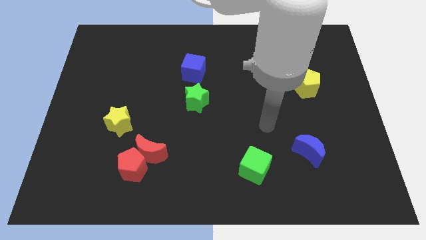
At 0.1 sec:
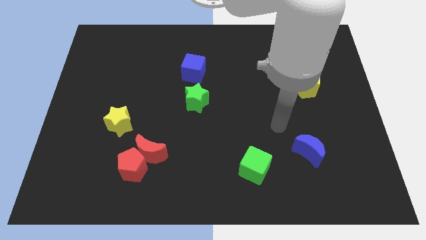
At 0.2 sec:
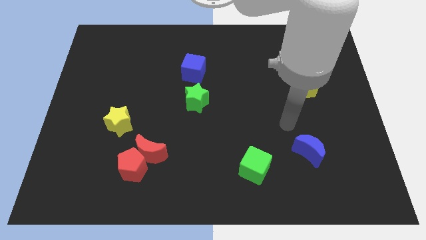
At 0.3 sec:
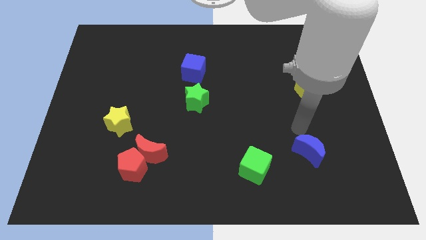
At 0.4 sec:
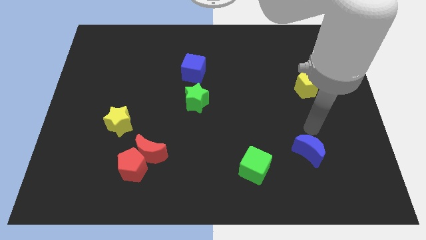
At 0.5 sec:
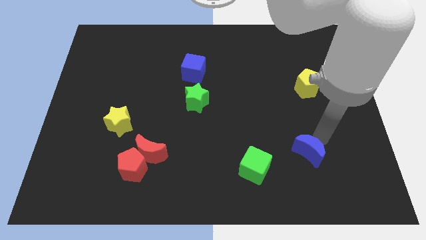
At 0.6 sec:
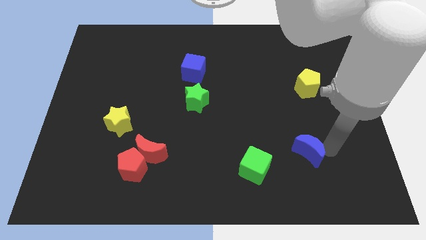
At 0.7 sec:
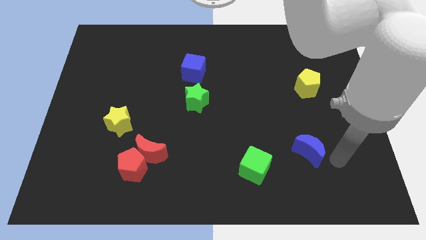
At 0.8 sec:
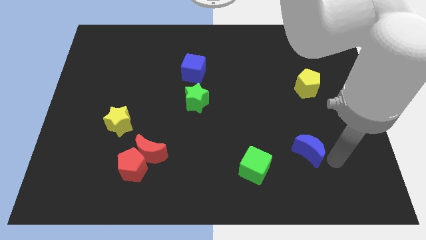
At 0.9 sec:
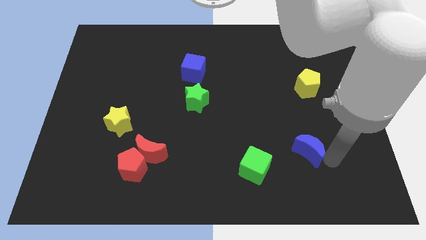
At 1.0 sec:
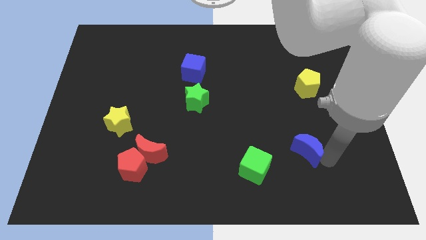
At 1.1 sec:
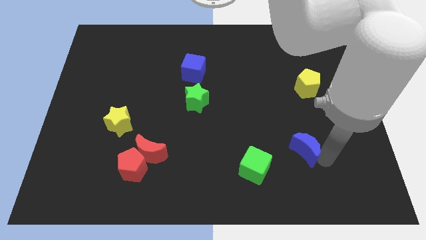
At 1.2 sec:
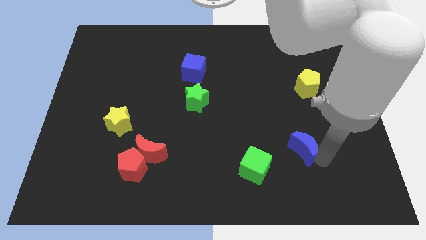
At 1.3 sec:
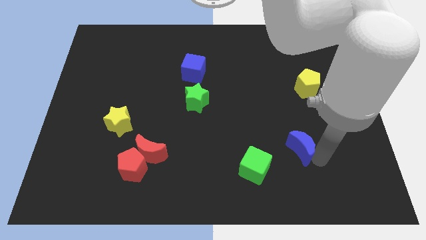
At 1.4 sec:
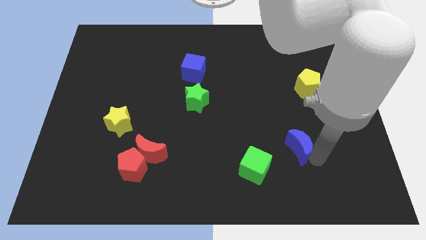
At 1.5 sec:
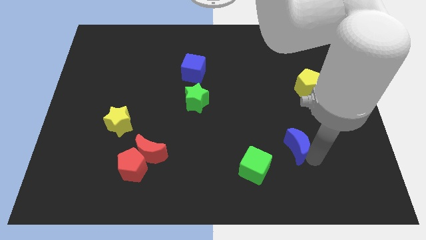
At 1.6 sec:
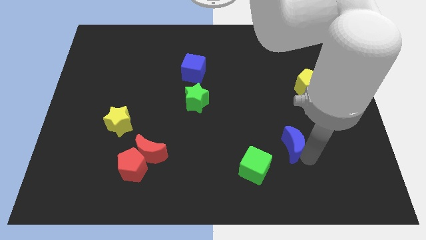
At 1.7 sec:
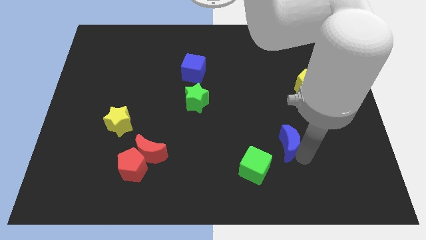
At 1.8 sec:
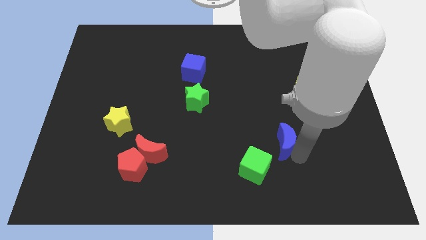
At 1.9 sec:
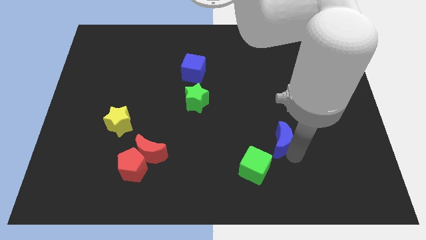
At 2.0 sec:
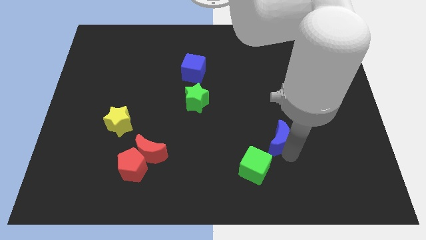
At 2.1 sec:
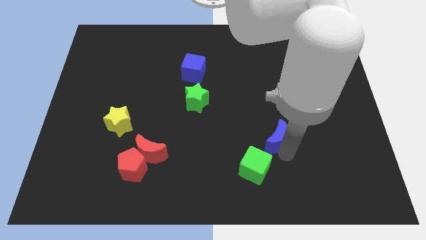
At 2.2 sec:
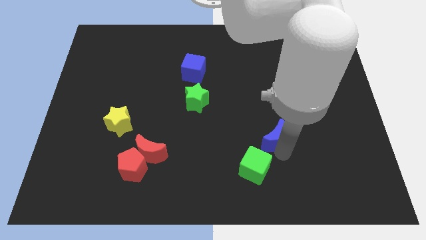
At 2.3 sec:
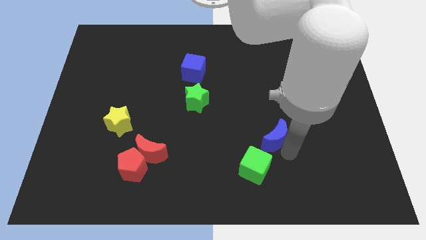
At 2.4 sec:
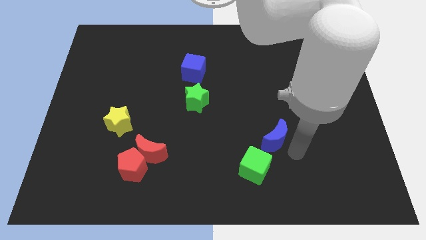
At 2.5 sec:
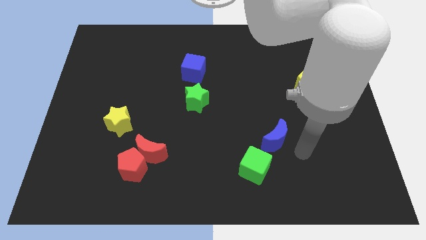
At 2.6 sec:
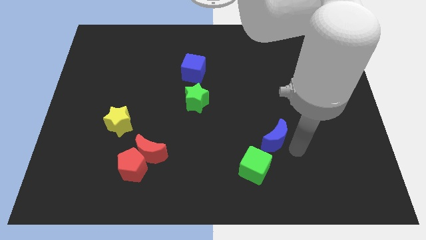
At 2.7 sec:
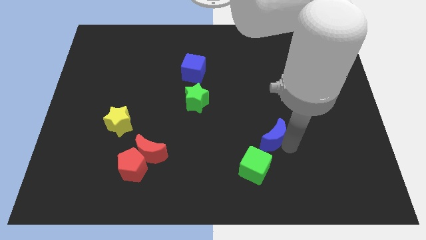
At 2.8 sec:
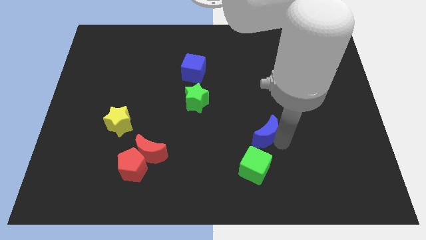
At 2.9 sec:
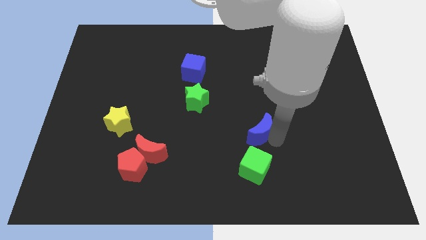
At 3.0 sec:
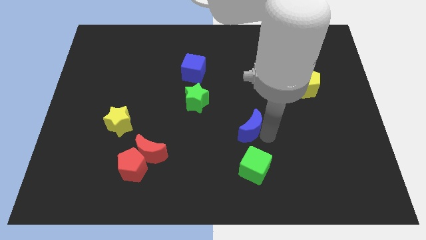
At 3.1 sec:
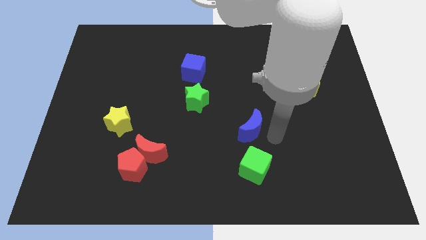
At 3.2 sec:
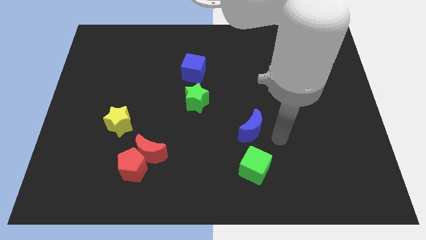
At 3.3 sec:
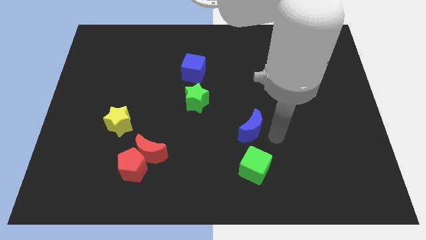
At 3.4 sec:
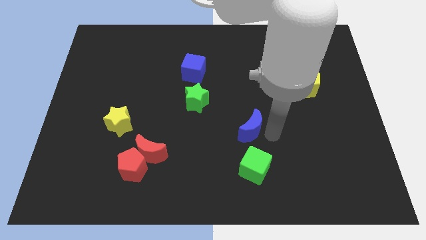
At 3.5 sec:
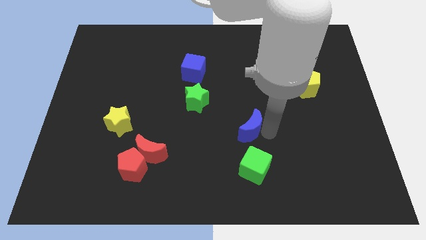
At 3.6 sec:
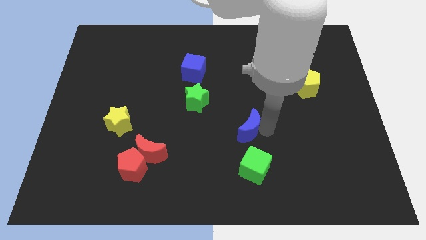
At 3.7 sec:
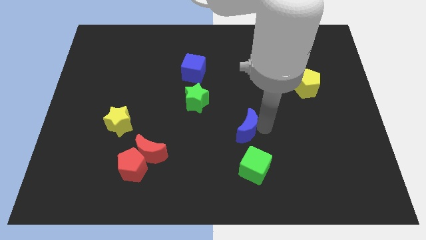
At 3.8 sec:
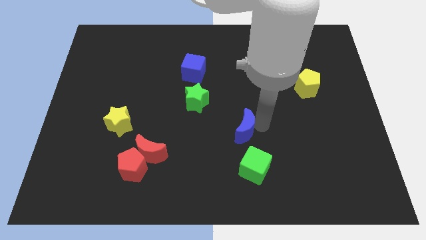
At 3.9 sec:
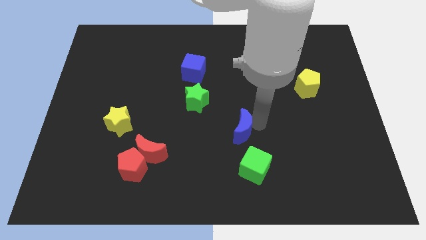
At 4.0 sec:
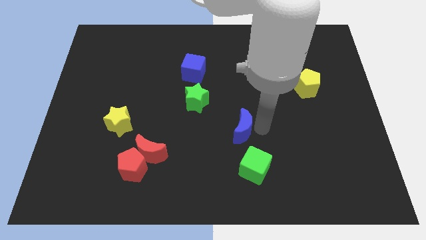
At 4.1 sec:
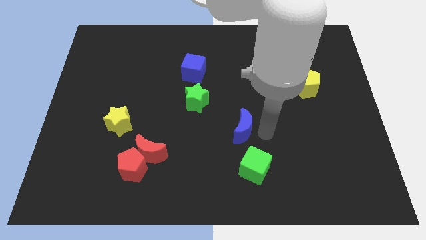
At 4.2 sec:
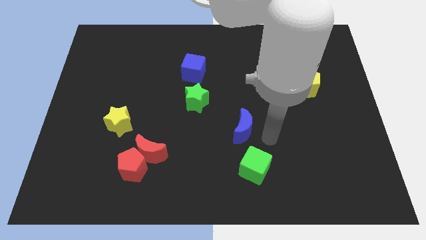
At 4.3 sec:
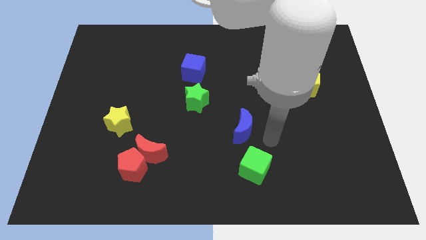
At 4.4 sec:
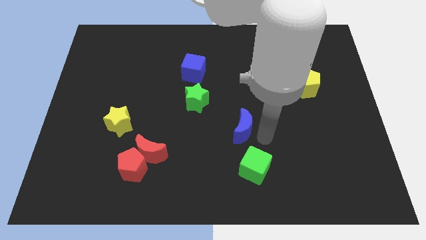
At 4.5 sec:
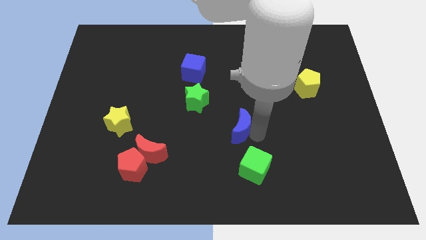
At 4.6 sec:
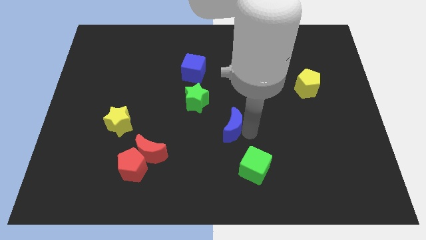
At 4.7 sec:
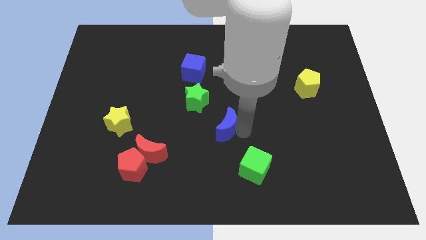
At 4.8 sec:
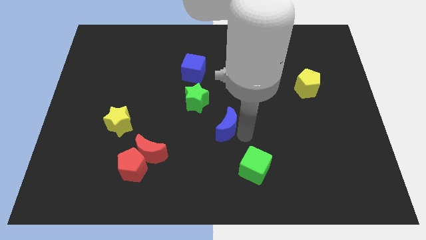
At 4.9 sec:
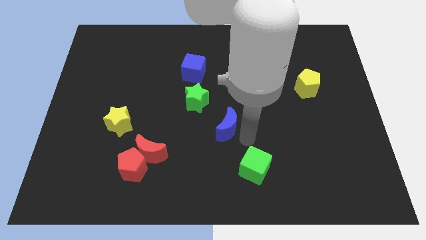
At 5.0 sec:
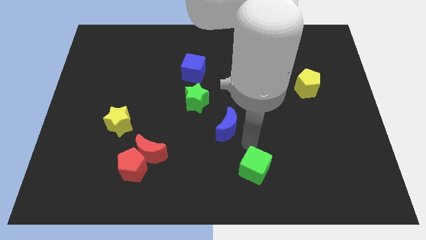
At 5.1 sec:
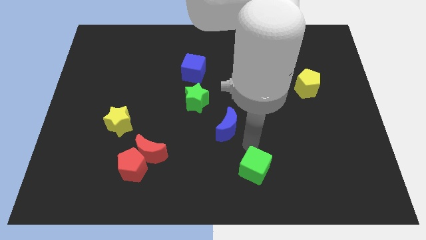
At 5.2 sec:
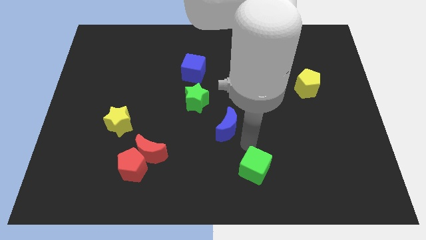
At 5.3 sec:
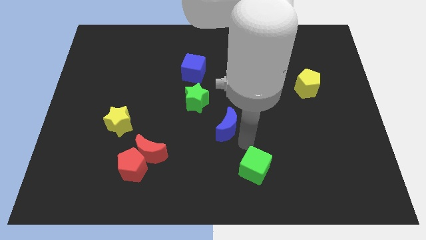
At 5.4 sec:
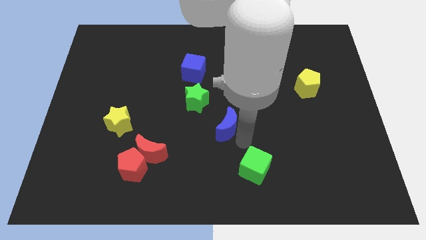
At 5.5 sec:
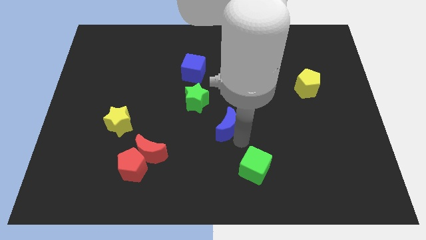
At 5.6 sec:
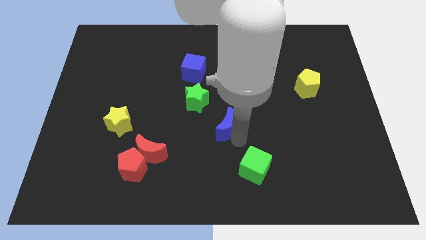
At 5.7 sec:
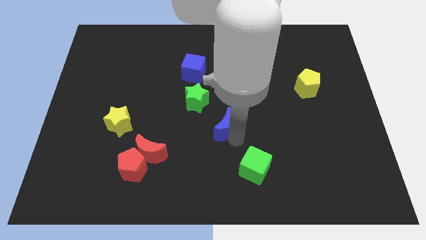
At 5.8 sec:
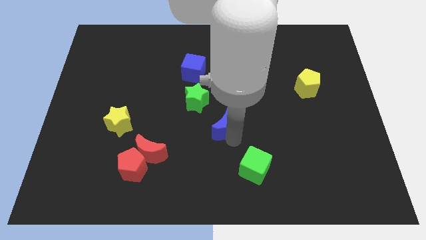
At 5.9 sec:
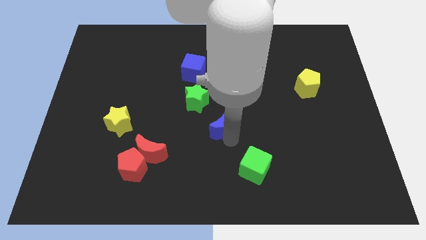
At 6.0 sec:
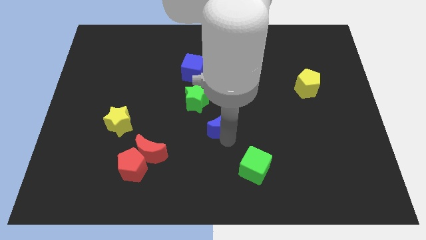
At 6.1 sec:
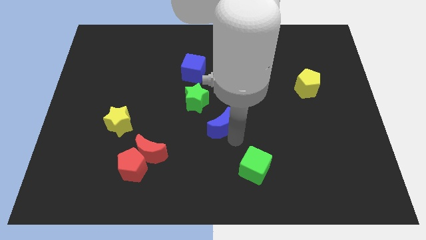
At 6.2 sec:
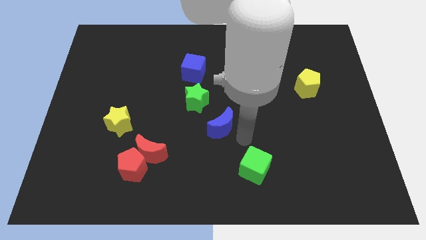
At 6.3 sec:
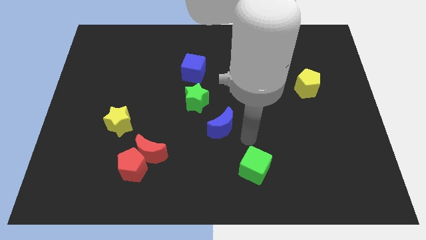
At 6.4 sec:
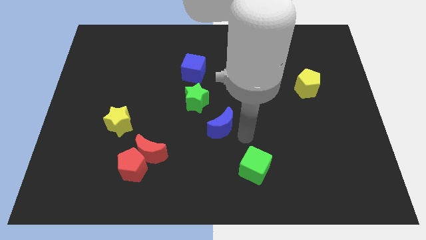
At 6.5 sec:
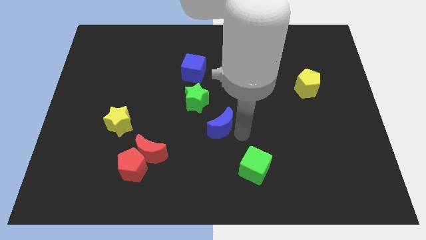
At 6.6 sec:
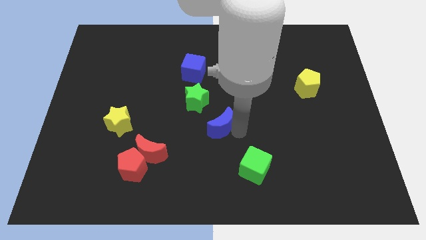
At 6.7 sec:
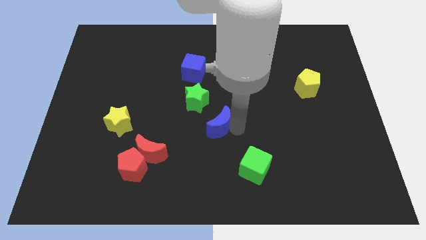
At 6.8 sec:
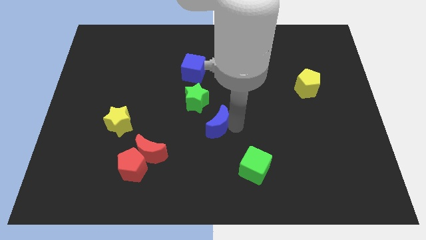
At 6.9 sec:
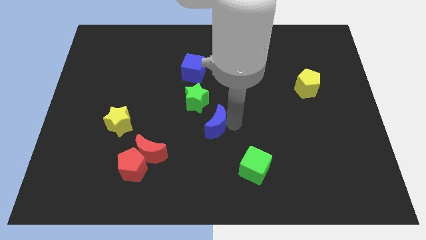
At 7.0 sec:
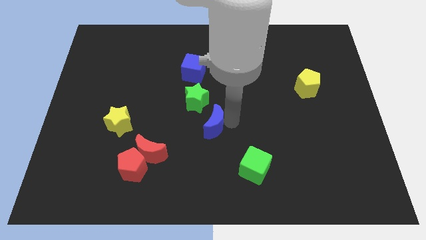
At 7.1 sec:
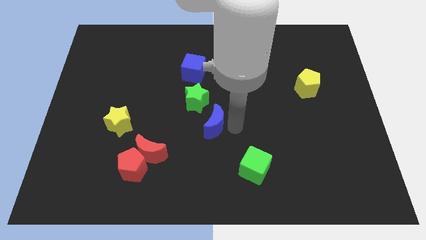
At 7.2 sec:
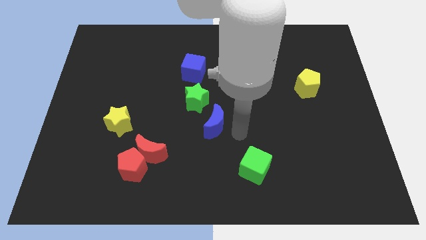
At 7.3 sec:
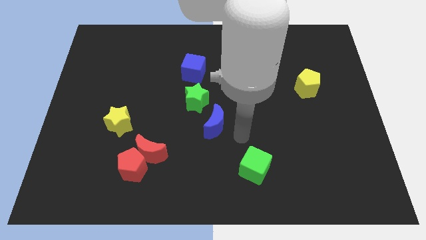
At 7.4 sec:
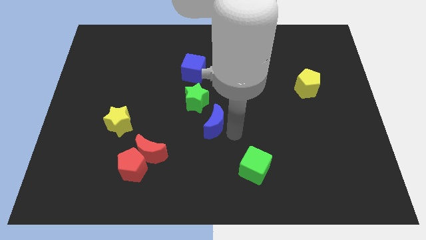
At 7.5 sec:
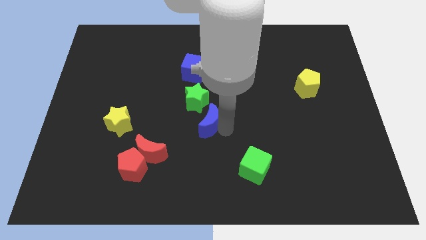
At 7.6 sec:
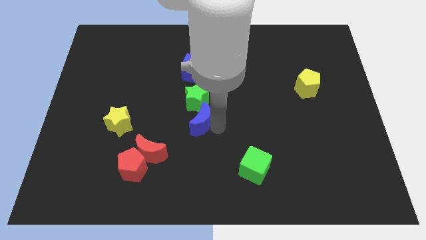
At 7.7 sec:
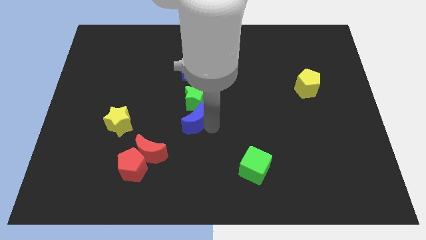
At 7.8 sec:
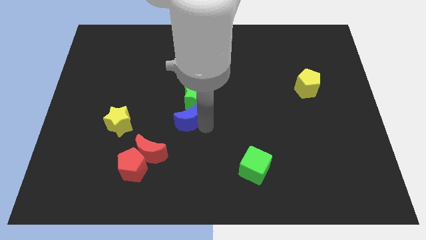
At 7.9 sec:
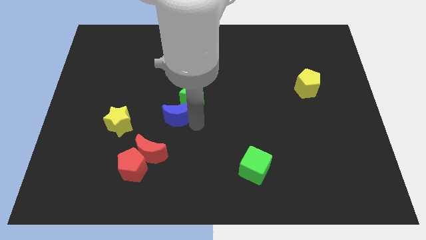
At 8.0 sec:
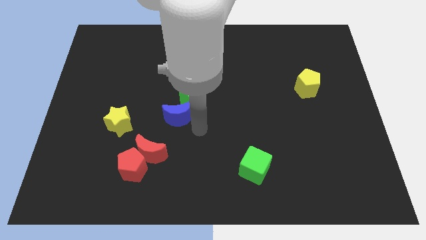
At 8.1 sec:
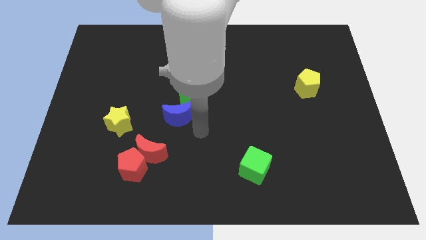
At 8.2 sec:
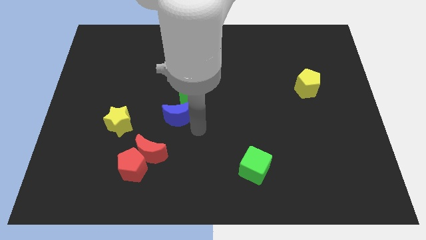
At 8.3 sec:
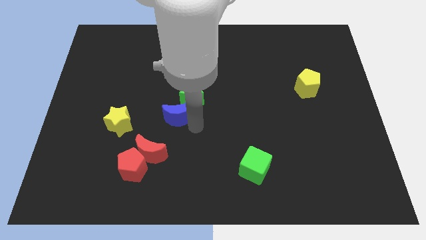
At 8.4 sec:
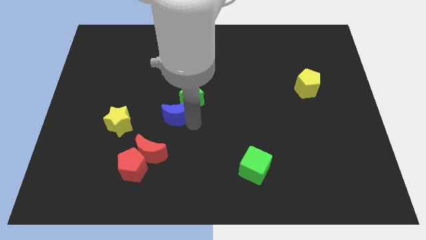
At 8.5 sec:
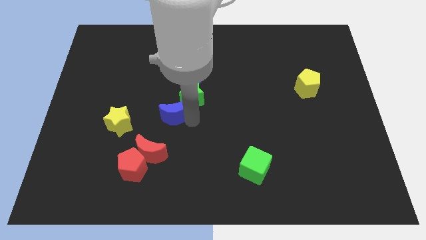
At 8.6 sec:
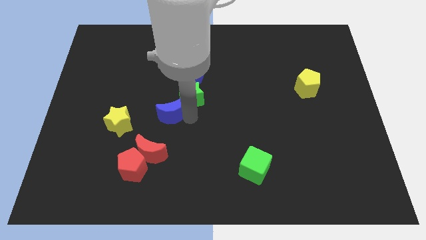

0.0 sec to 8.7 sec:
move the blue moon to the left side of the green star
